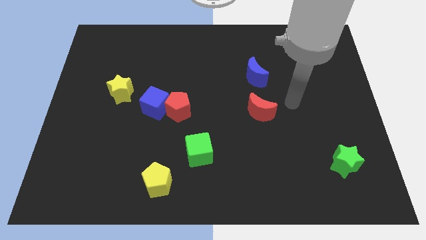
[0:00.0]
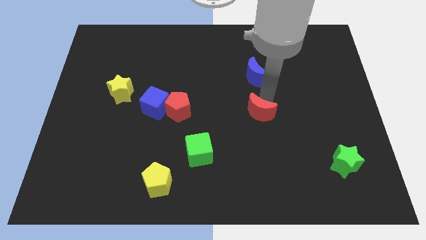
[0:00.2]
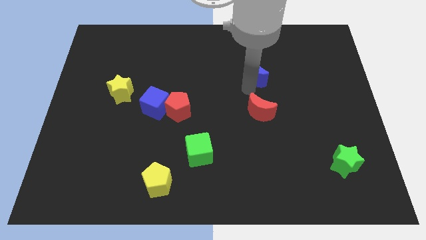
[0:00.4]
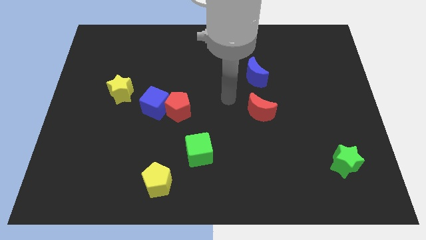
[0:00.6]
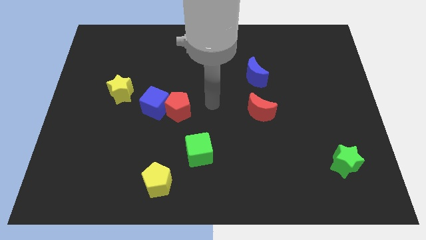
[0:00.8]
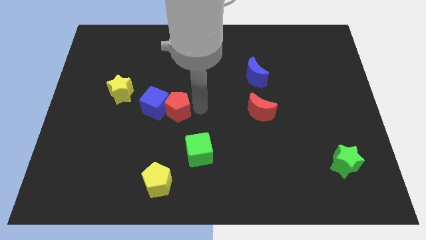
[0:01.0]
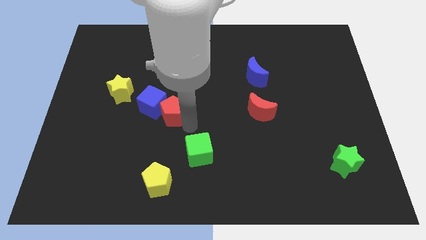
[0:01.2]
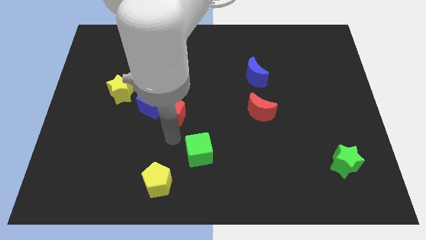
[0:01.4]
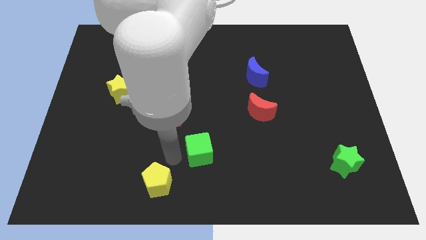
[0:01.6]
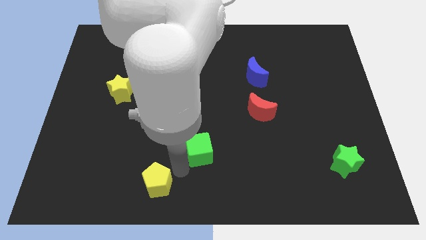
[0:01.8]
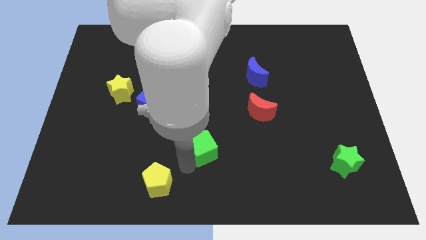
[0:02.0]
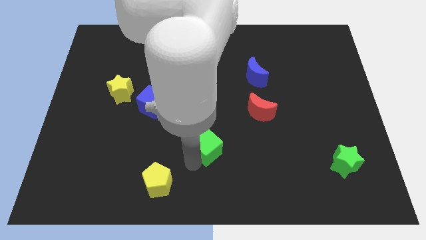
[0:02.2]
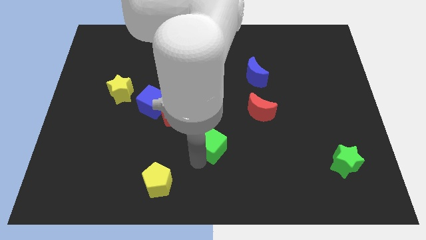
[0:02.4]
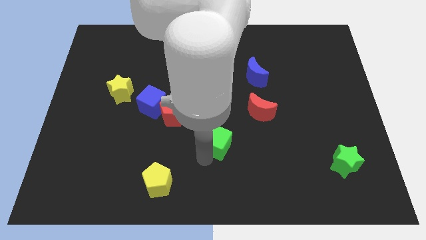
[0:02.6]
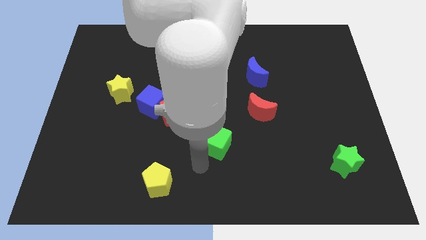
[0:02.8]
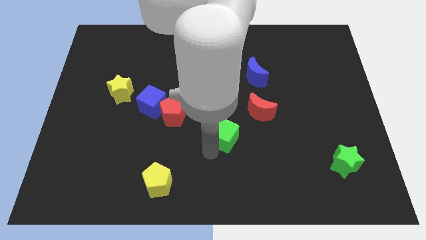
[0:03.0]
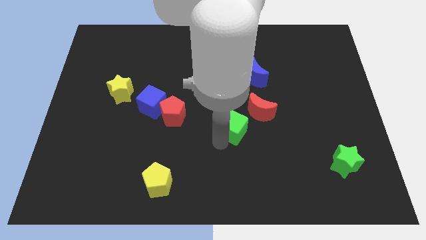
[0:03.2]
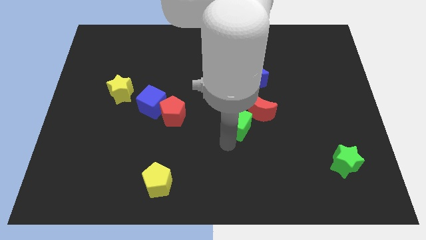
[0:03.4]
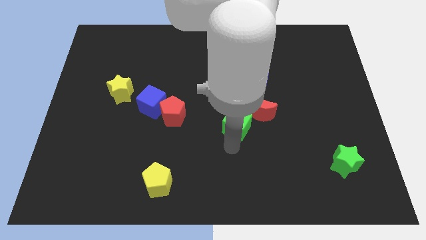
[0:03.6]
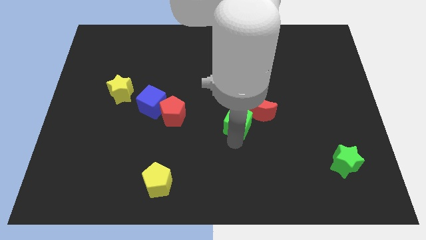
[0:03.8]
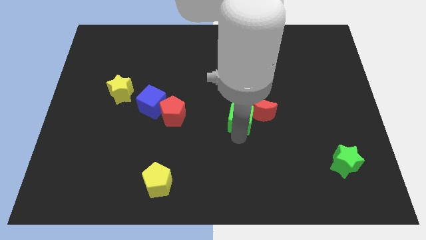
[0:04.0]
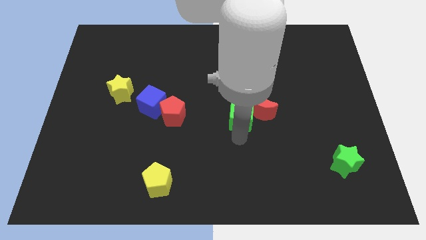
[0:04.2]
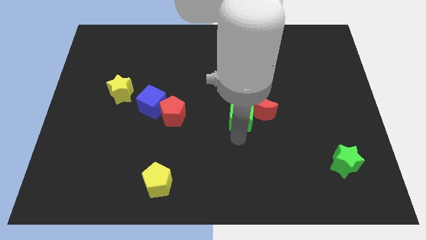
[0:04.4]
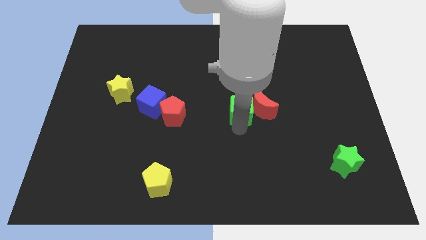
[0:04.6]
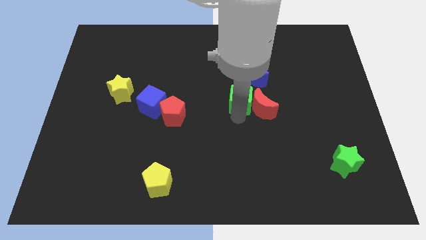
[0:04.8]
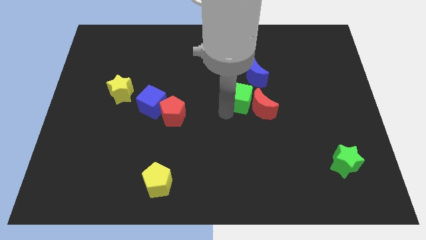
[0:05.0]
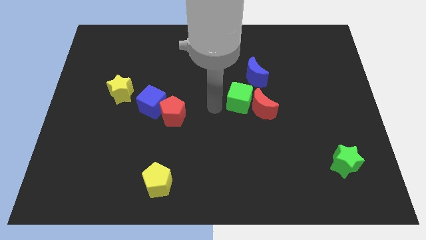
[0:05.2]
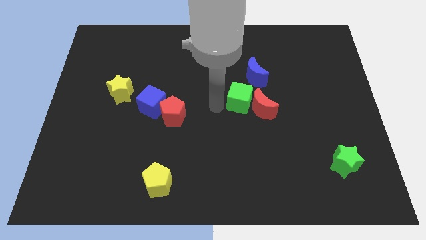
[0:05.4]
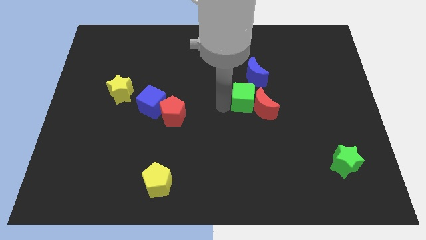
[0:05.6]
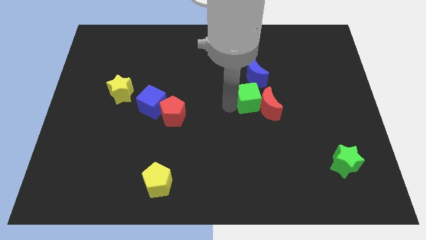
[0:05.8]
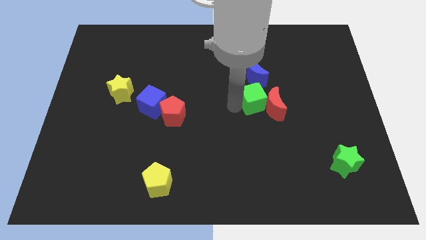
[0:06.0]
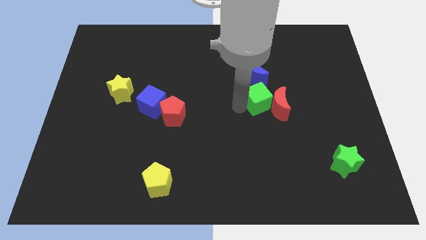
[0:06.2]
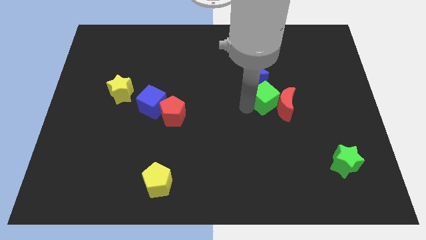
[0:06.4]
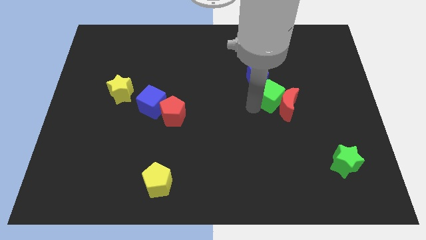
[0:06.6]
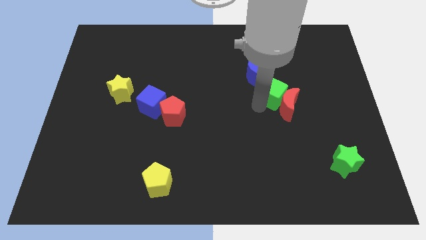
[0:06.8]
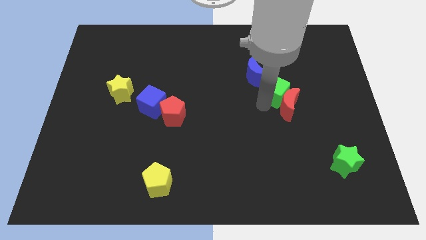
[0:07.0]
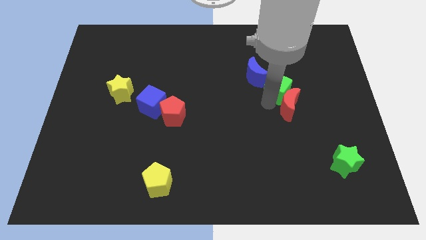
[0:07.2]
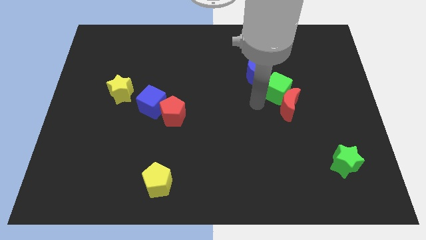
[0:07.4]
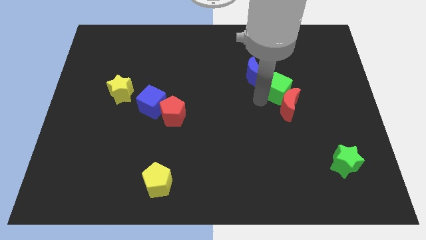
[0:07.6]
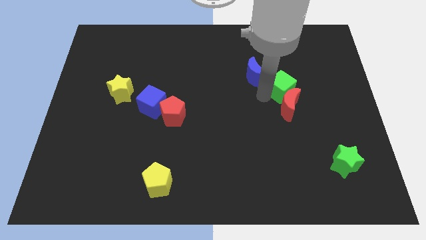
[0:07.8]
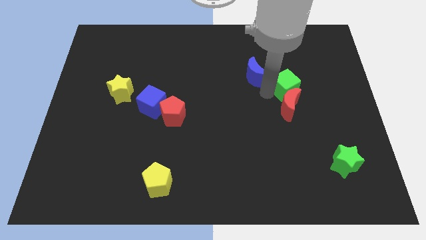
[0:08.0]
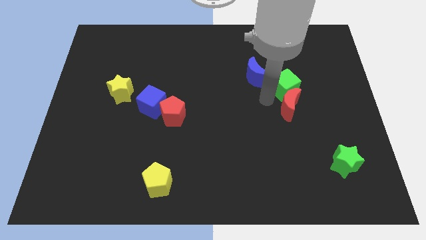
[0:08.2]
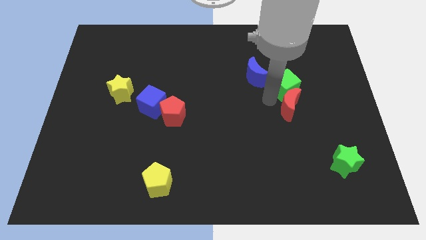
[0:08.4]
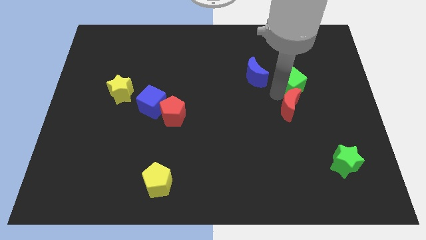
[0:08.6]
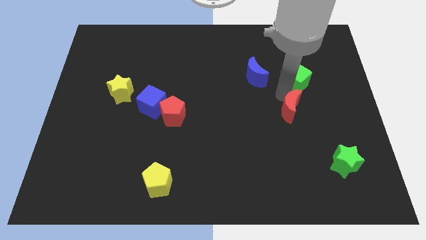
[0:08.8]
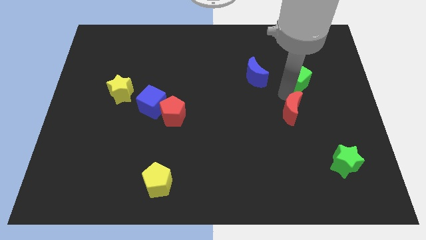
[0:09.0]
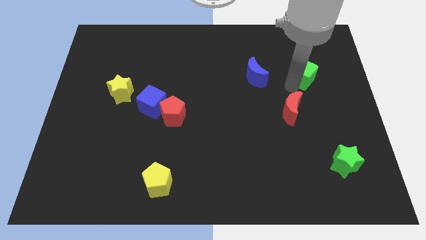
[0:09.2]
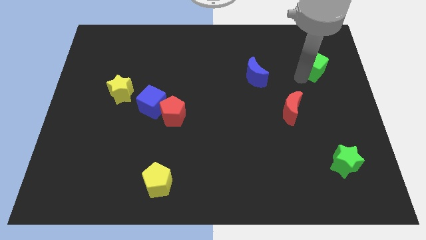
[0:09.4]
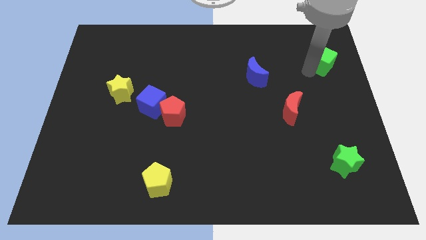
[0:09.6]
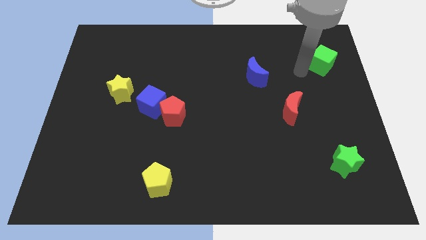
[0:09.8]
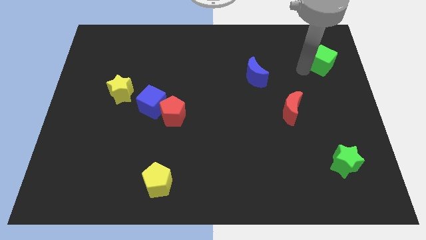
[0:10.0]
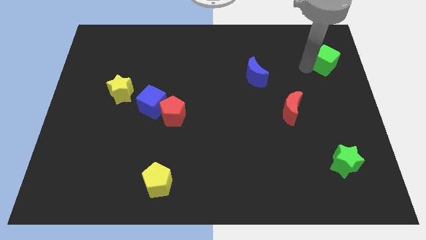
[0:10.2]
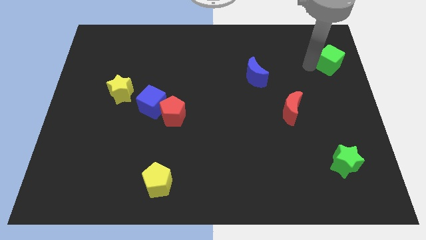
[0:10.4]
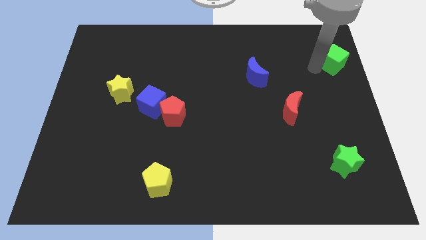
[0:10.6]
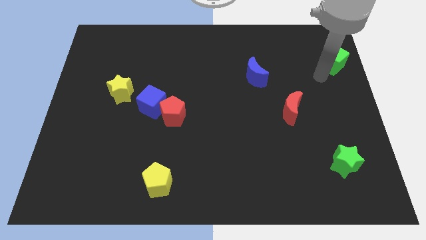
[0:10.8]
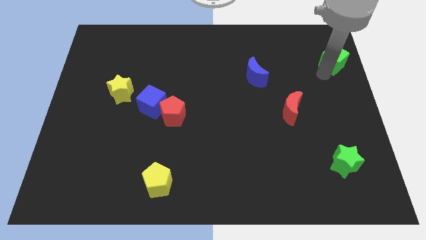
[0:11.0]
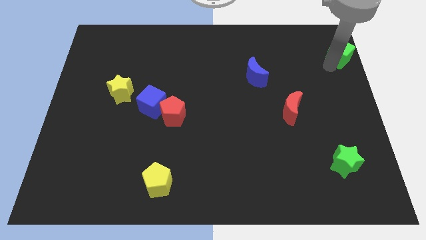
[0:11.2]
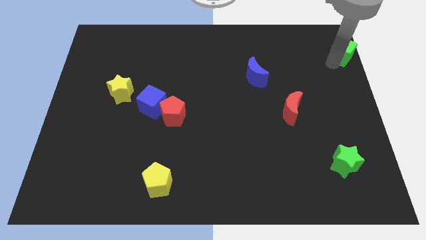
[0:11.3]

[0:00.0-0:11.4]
put the green cube to the top right of the board
